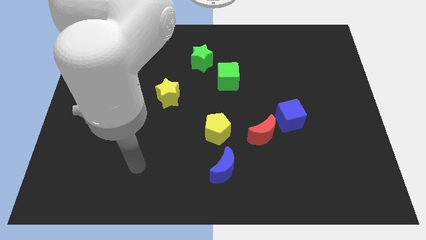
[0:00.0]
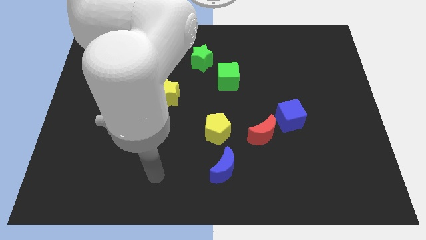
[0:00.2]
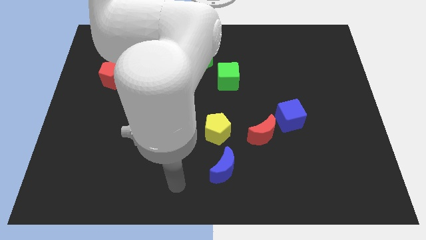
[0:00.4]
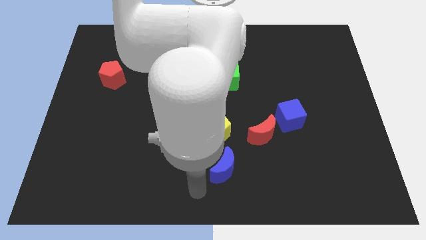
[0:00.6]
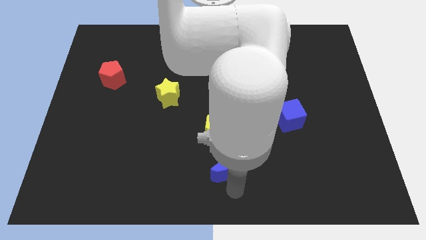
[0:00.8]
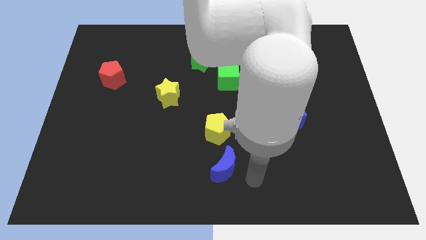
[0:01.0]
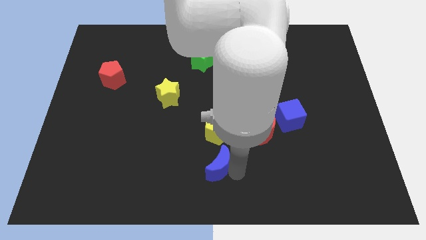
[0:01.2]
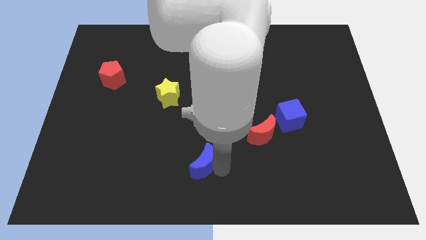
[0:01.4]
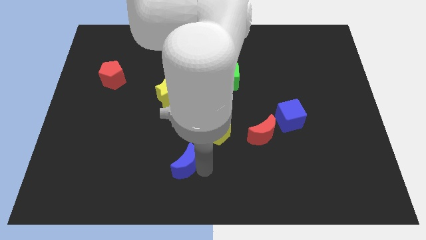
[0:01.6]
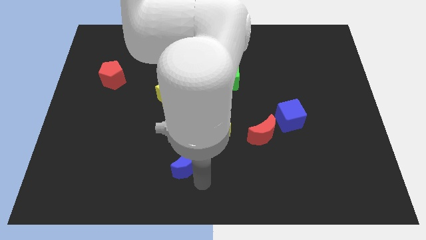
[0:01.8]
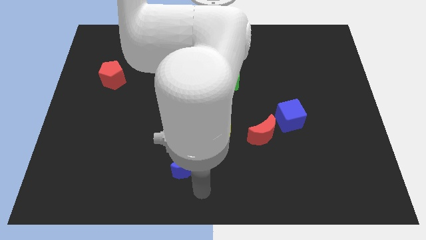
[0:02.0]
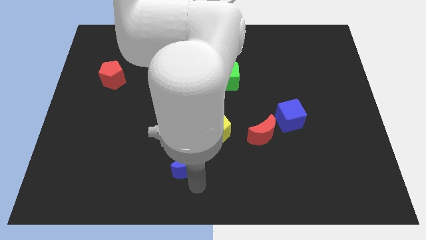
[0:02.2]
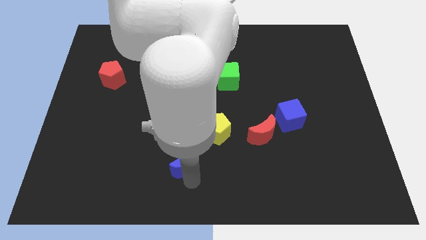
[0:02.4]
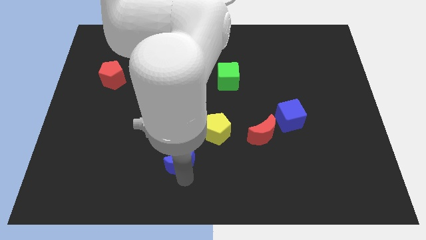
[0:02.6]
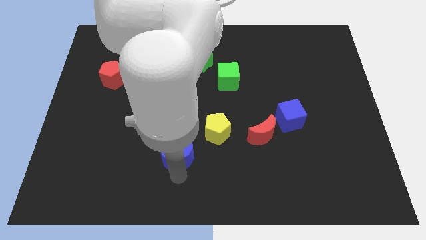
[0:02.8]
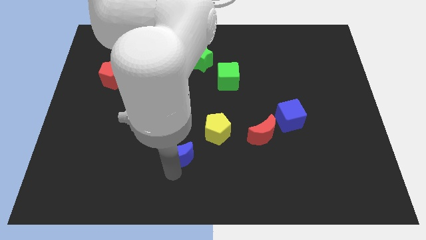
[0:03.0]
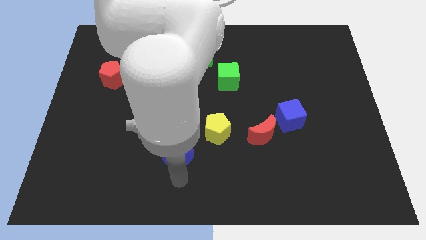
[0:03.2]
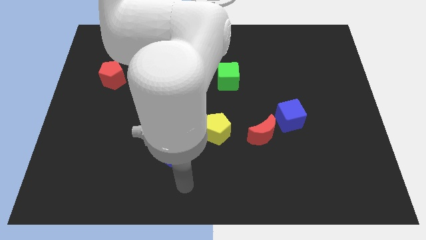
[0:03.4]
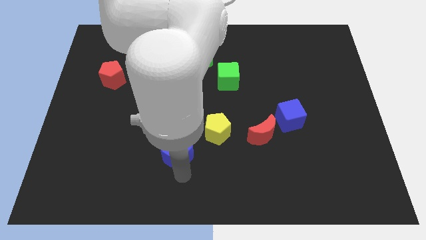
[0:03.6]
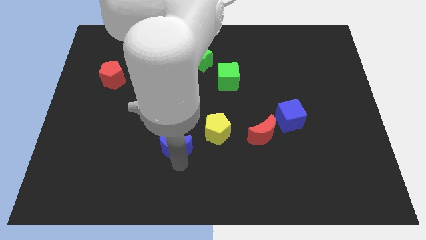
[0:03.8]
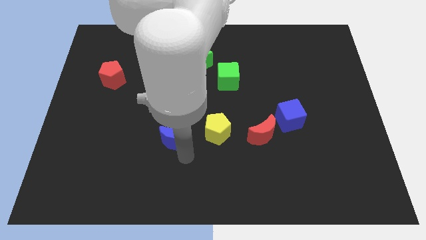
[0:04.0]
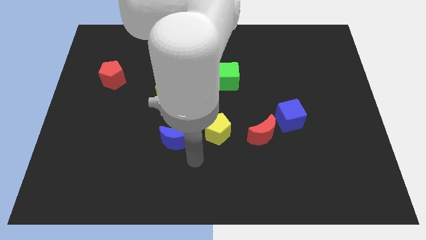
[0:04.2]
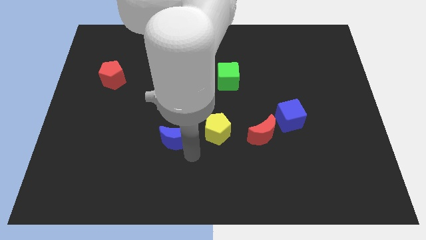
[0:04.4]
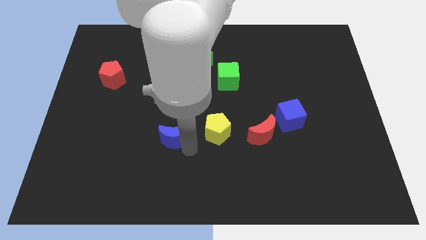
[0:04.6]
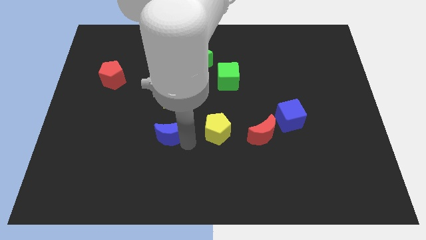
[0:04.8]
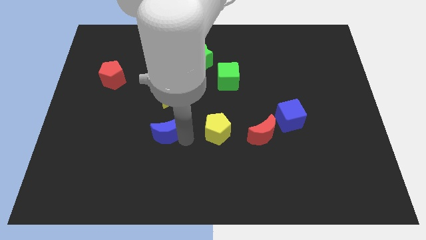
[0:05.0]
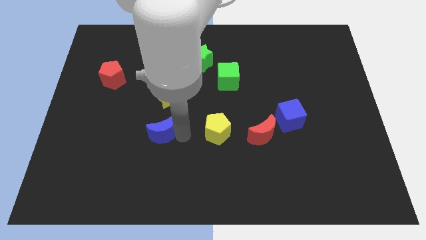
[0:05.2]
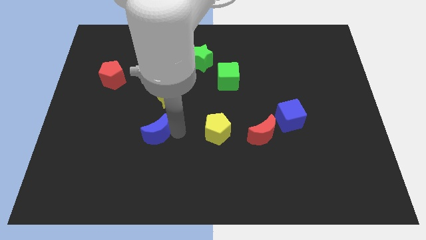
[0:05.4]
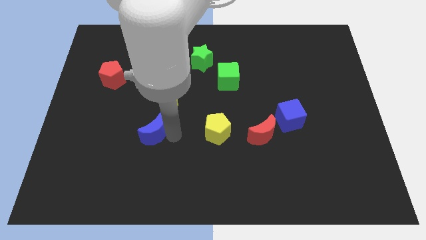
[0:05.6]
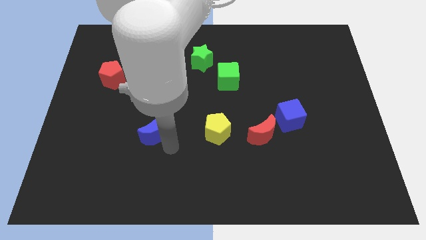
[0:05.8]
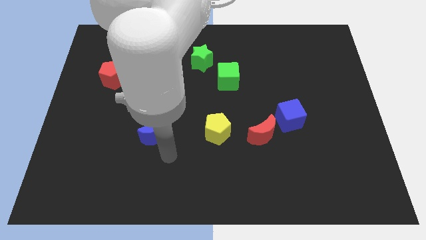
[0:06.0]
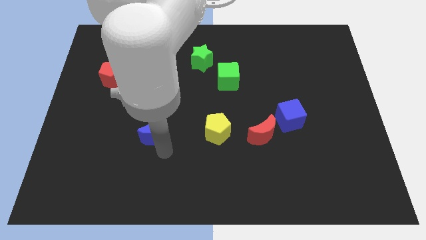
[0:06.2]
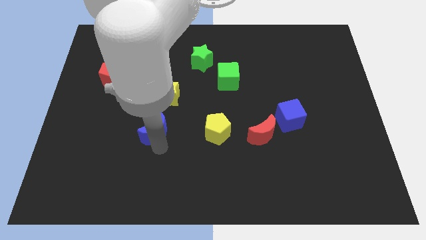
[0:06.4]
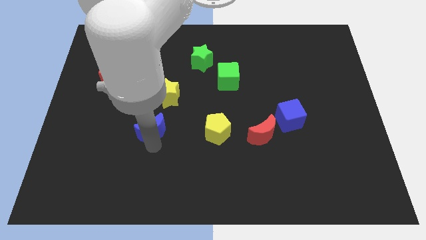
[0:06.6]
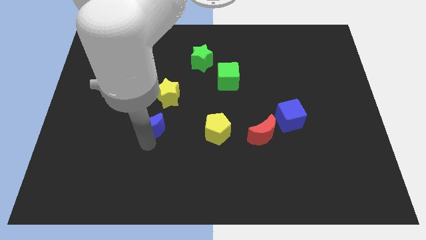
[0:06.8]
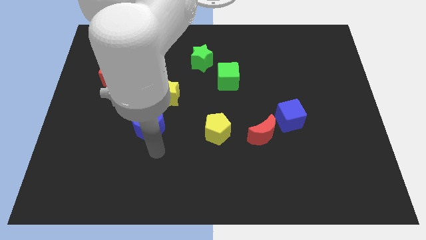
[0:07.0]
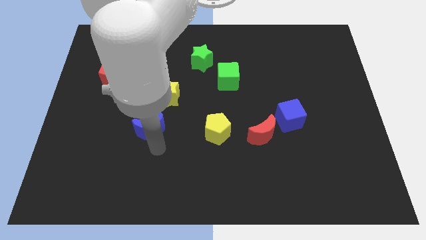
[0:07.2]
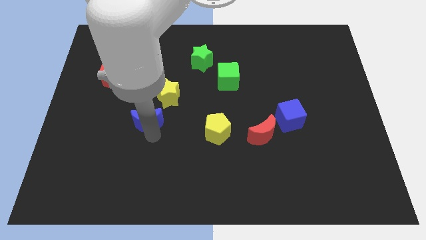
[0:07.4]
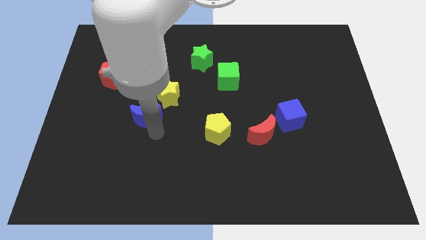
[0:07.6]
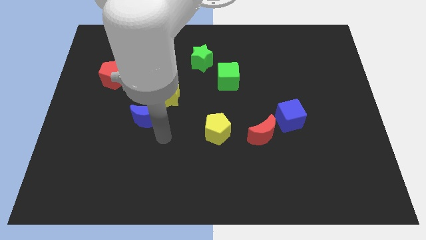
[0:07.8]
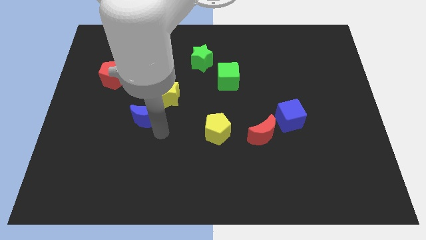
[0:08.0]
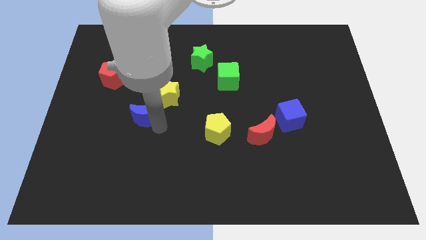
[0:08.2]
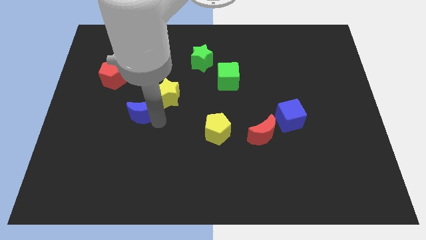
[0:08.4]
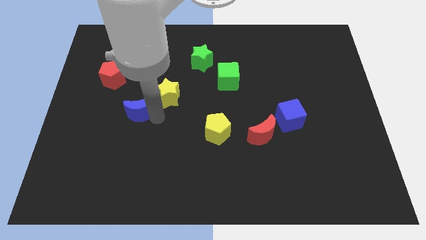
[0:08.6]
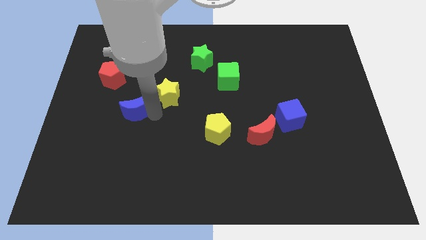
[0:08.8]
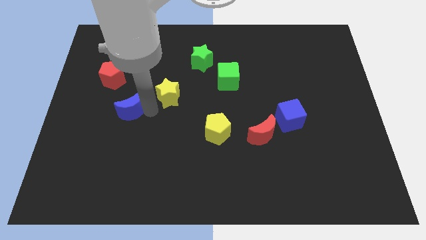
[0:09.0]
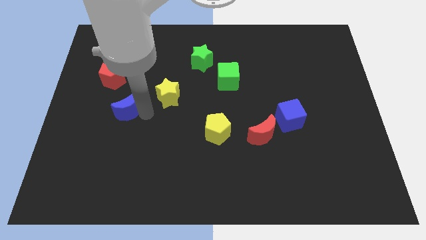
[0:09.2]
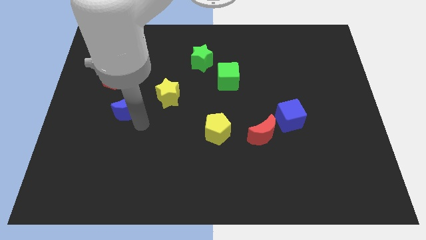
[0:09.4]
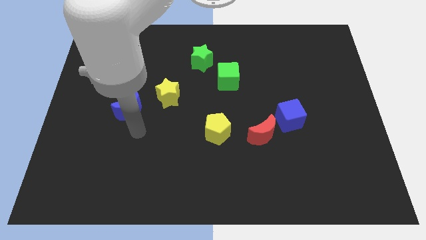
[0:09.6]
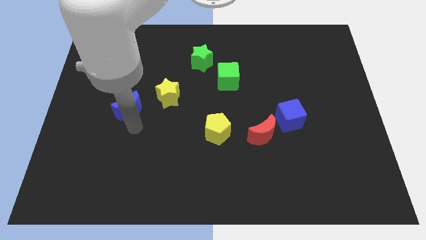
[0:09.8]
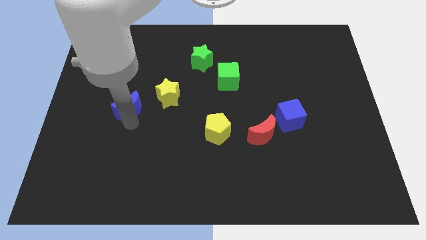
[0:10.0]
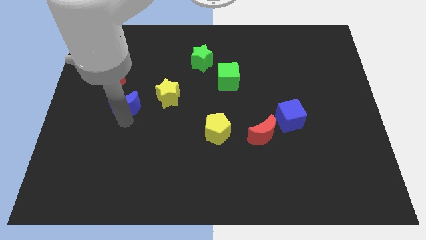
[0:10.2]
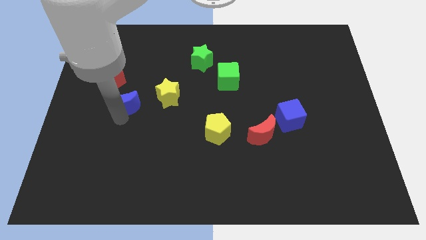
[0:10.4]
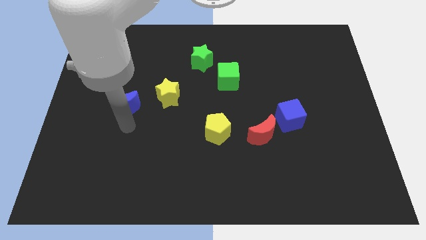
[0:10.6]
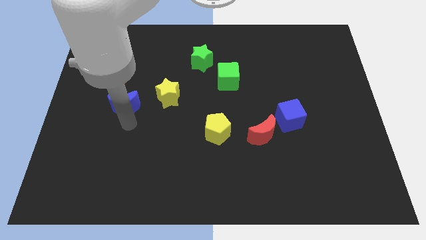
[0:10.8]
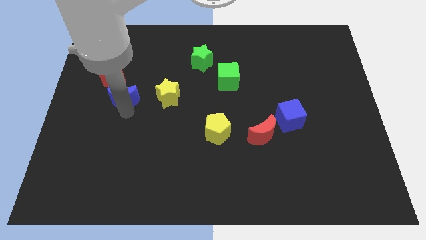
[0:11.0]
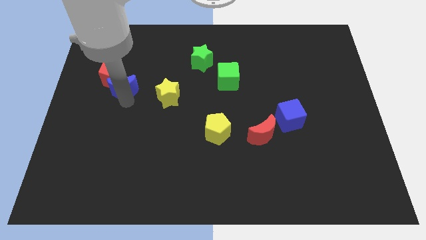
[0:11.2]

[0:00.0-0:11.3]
move the blue moon towards the red pentagon

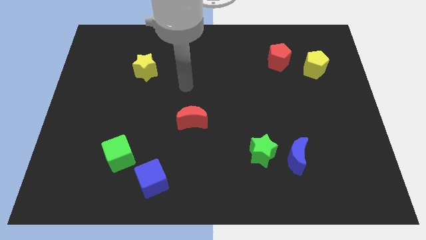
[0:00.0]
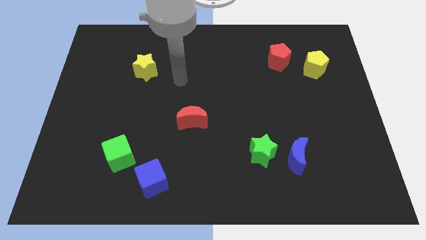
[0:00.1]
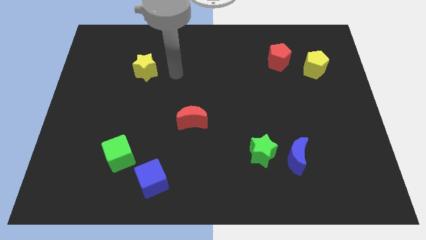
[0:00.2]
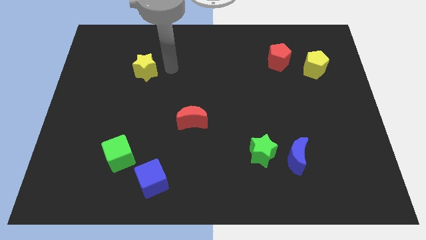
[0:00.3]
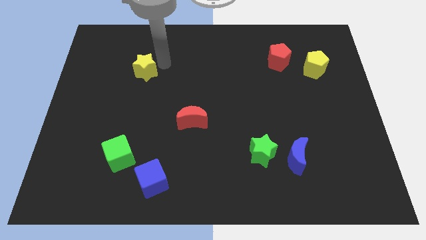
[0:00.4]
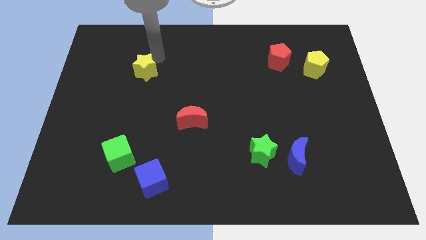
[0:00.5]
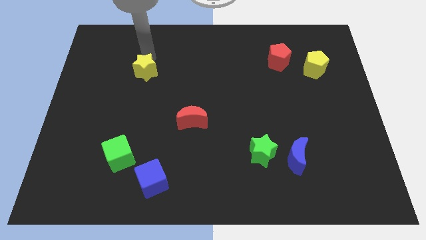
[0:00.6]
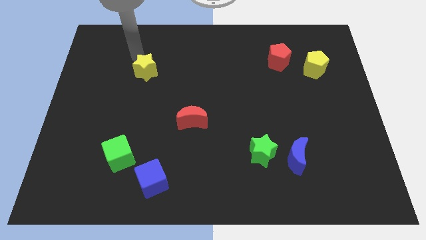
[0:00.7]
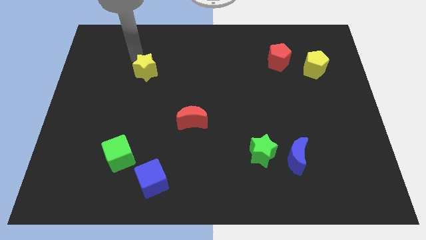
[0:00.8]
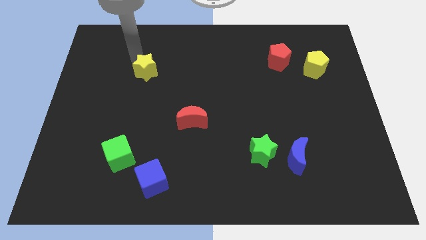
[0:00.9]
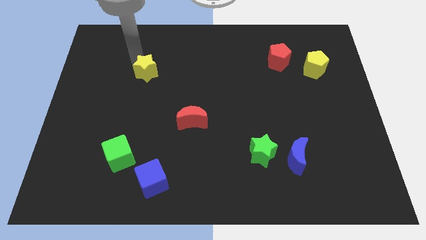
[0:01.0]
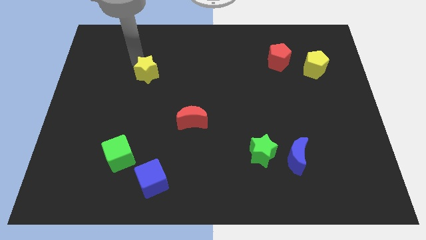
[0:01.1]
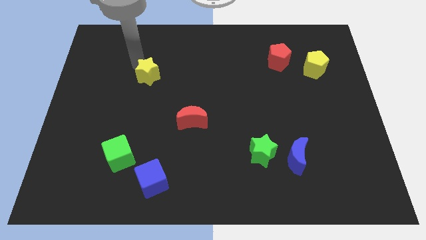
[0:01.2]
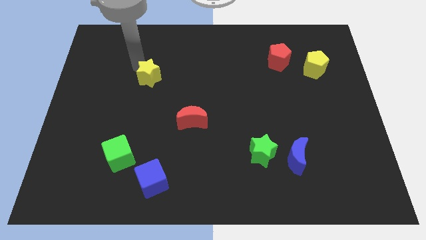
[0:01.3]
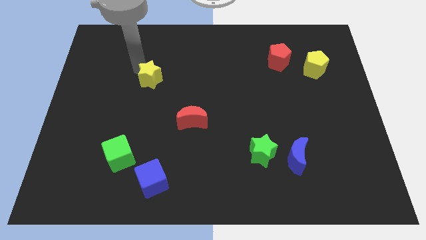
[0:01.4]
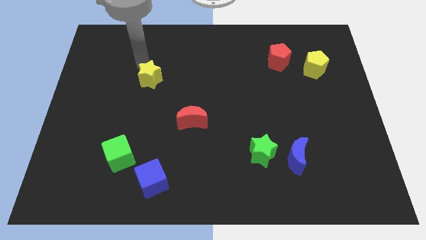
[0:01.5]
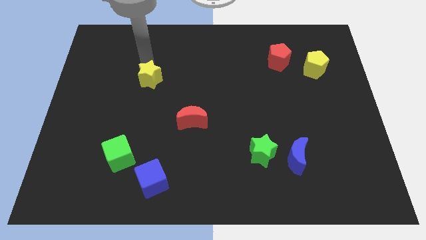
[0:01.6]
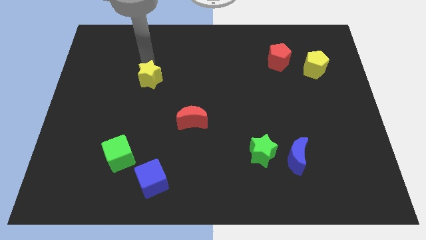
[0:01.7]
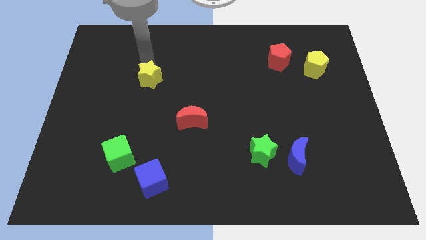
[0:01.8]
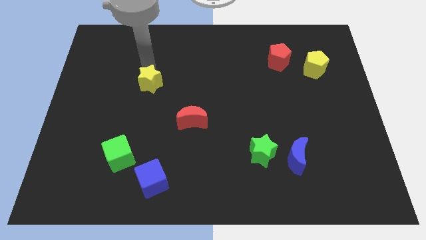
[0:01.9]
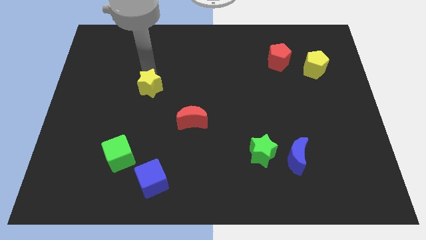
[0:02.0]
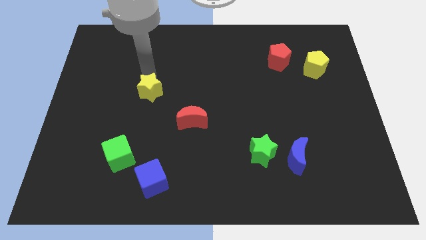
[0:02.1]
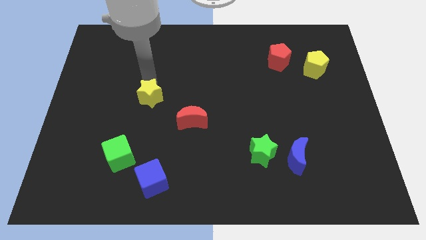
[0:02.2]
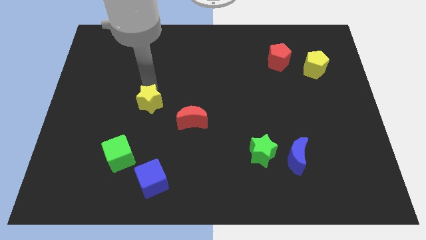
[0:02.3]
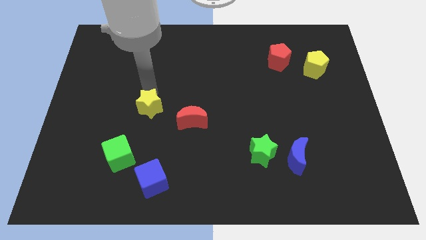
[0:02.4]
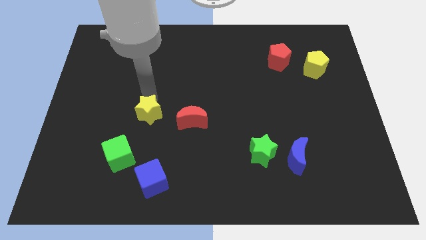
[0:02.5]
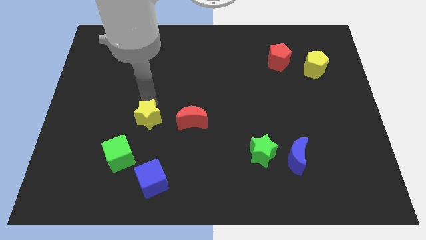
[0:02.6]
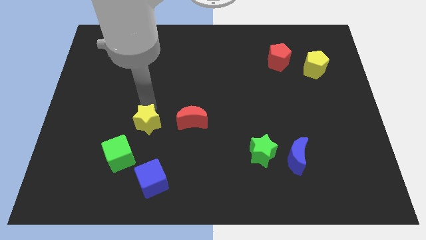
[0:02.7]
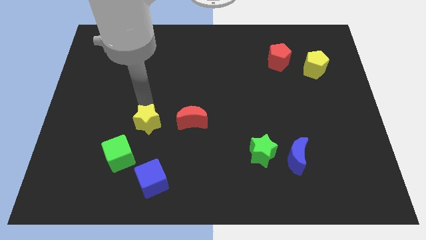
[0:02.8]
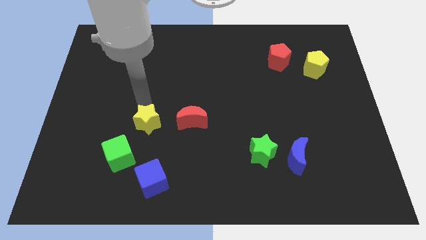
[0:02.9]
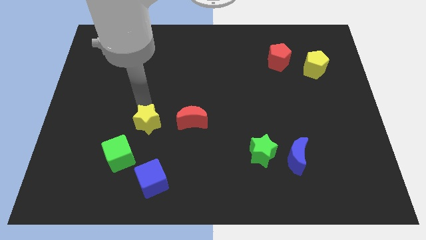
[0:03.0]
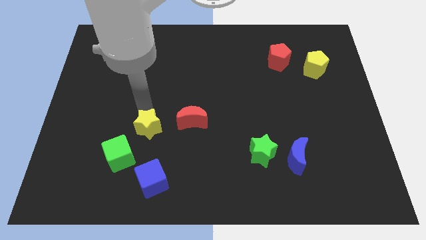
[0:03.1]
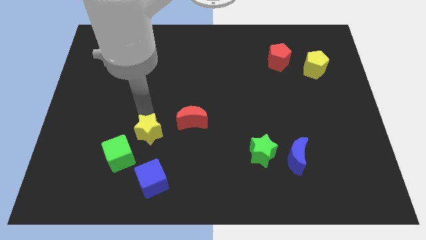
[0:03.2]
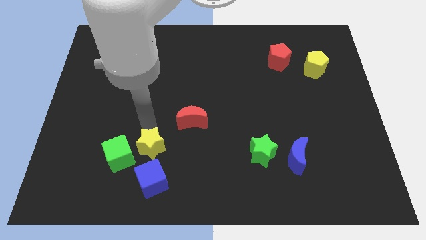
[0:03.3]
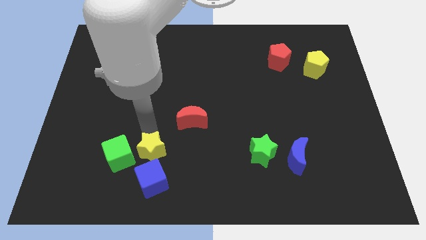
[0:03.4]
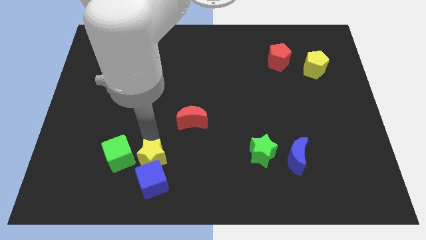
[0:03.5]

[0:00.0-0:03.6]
slide the yellow star to the blue cube
